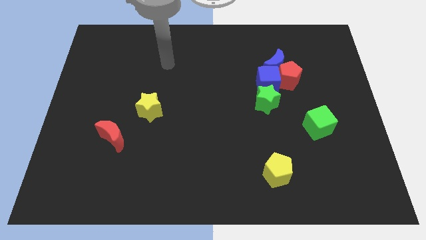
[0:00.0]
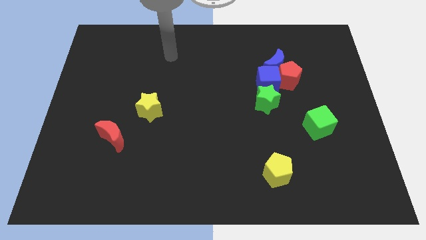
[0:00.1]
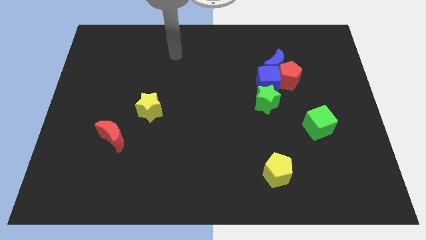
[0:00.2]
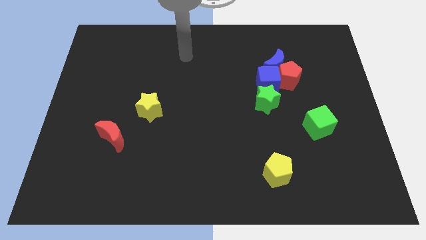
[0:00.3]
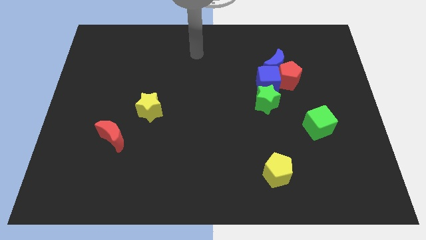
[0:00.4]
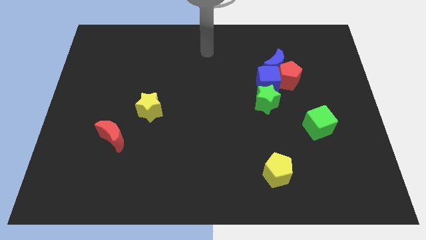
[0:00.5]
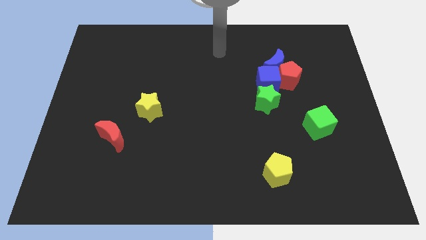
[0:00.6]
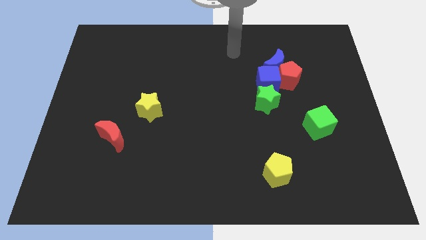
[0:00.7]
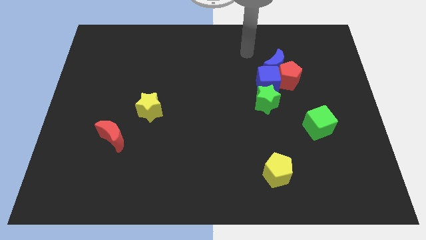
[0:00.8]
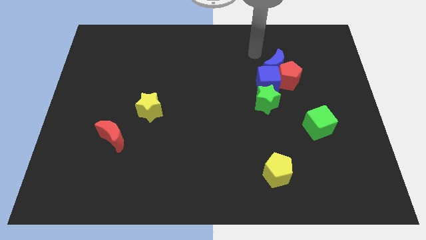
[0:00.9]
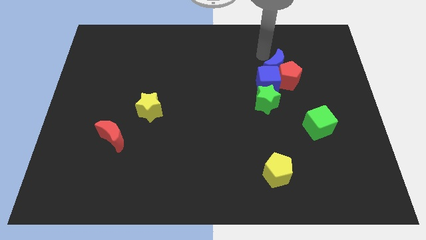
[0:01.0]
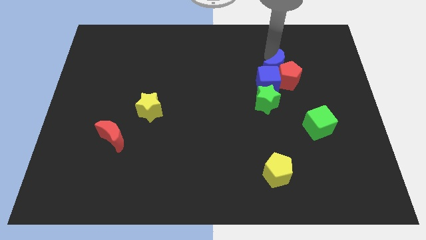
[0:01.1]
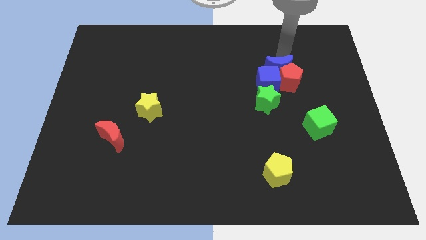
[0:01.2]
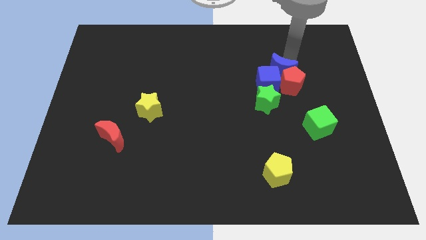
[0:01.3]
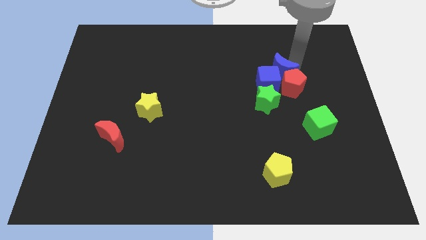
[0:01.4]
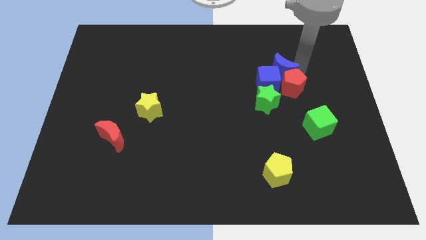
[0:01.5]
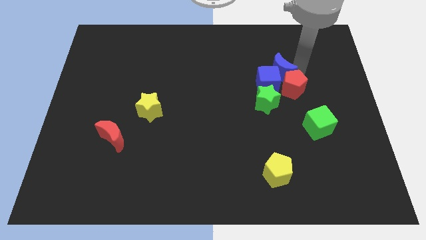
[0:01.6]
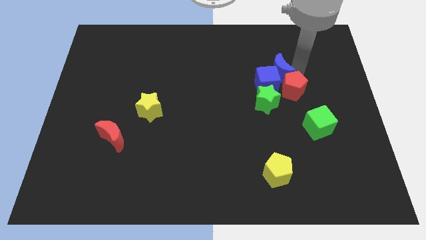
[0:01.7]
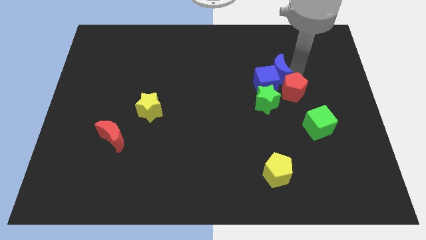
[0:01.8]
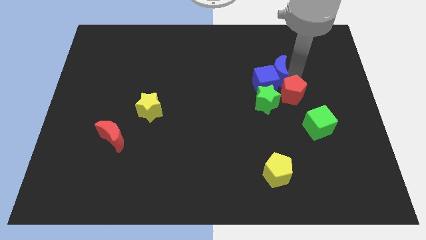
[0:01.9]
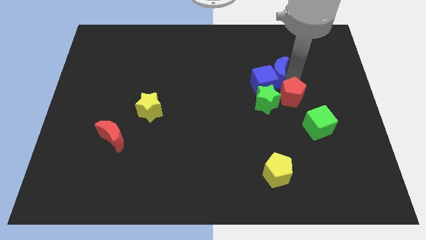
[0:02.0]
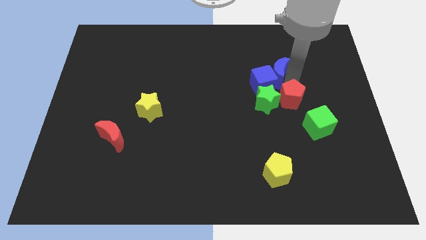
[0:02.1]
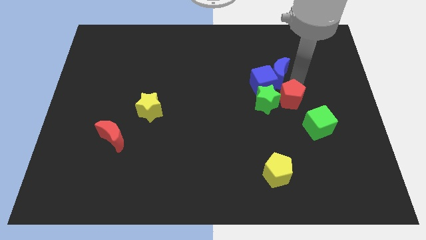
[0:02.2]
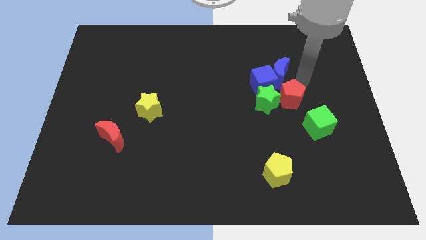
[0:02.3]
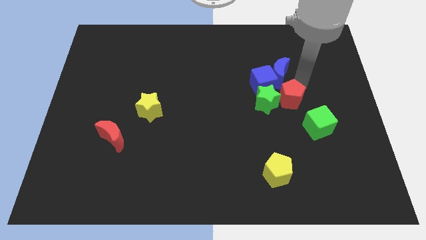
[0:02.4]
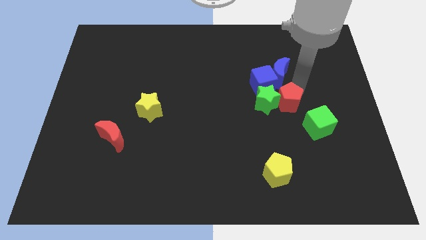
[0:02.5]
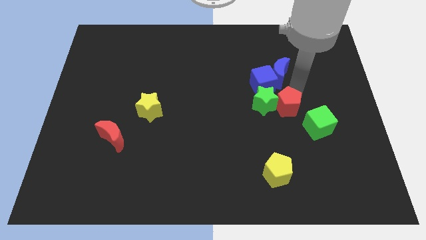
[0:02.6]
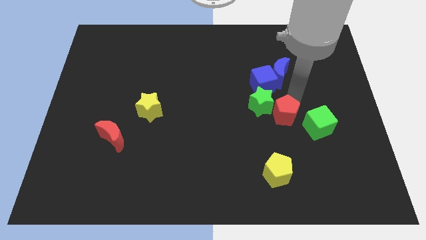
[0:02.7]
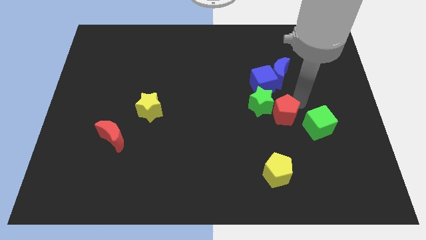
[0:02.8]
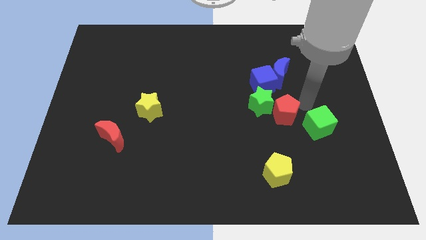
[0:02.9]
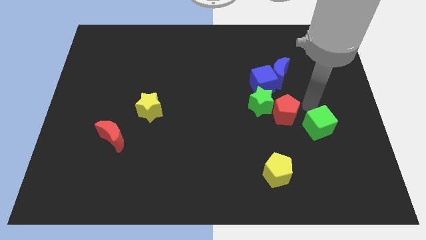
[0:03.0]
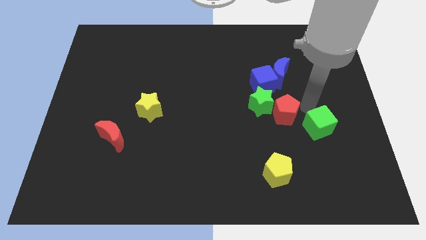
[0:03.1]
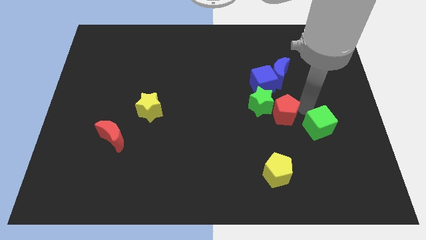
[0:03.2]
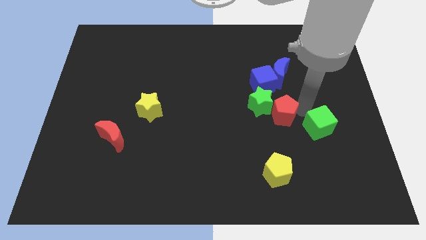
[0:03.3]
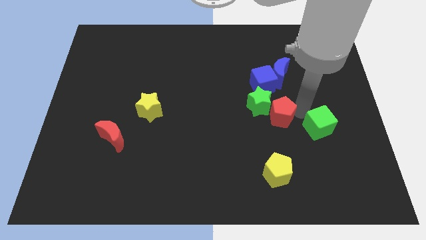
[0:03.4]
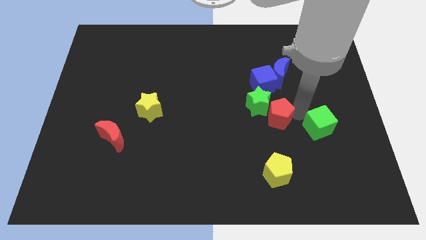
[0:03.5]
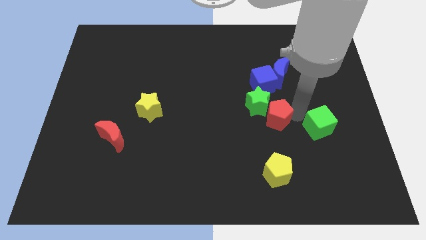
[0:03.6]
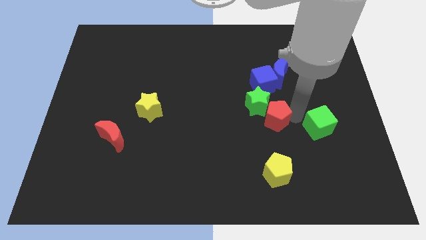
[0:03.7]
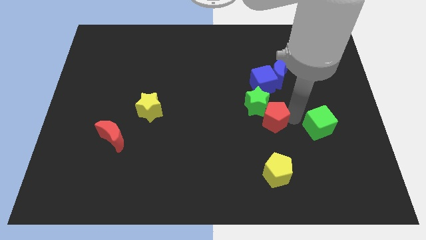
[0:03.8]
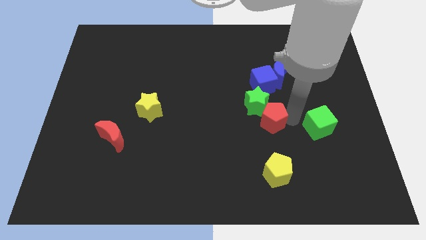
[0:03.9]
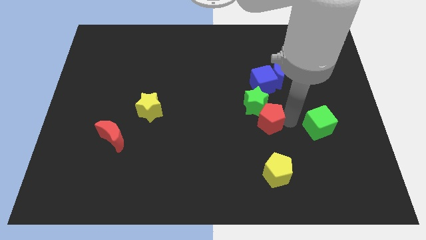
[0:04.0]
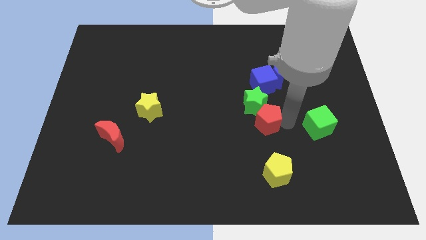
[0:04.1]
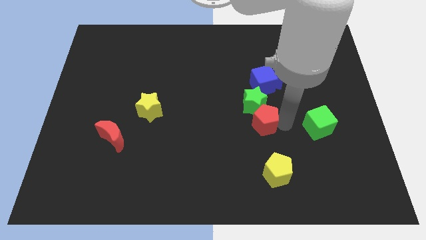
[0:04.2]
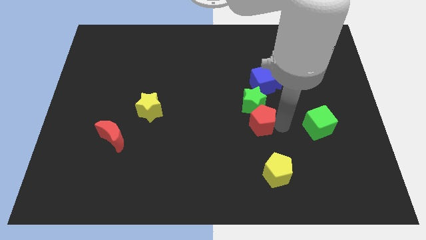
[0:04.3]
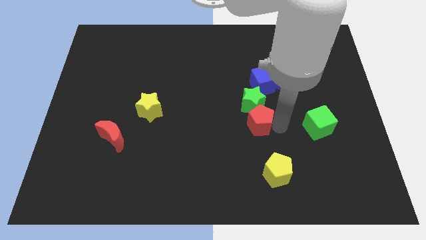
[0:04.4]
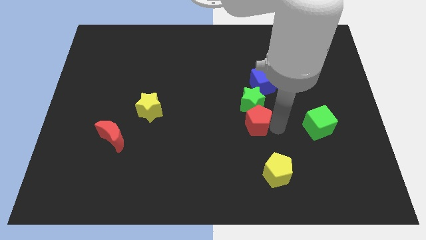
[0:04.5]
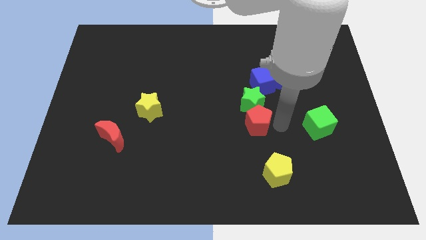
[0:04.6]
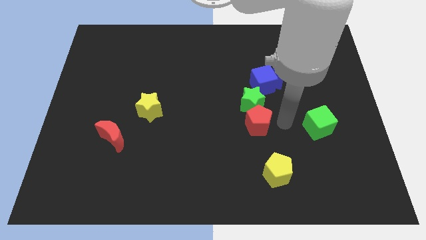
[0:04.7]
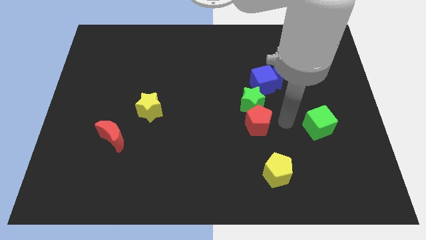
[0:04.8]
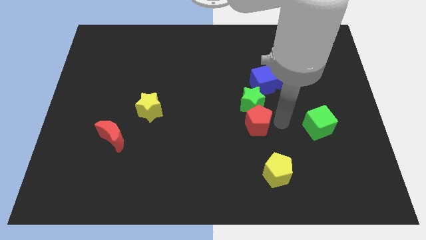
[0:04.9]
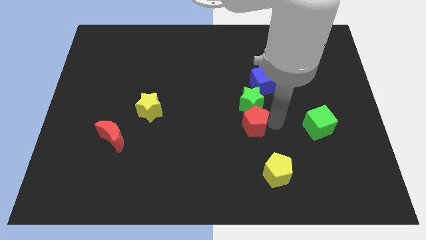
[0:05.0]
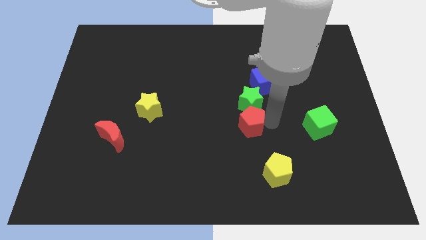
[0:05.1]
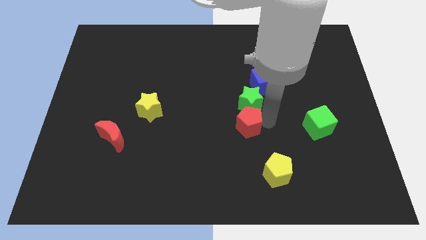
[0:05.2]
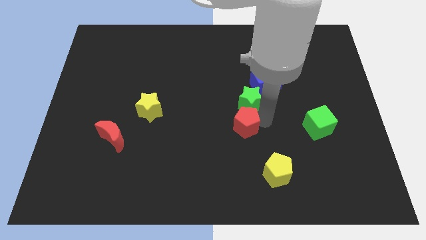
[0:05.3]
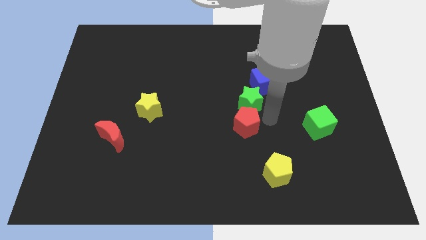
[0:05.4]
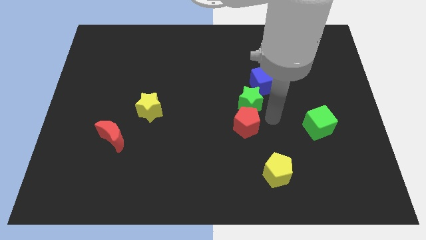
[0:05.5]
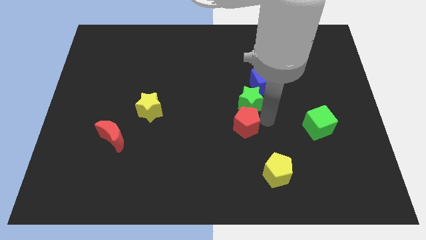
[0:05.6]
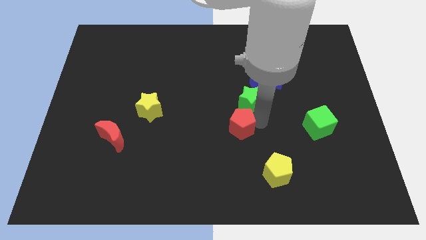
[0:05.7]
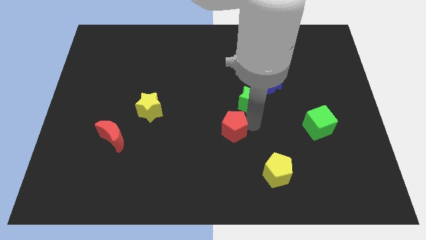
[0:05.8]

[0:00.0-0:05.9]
slide the red pentagon downwards and to the left

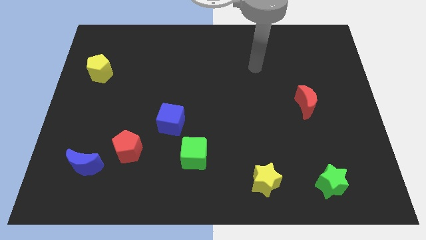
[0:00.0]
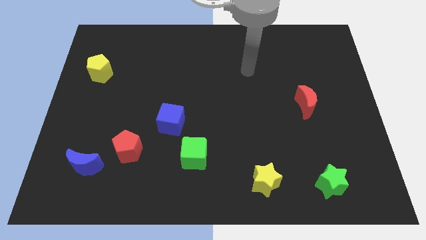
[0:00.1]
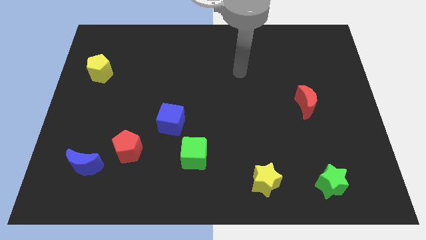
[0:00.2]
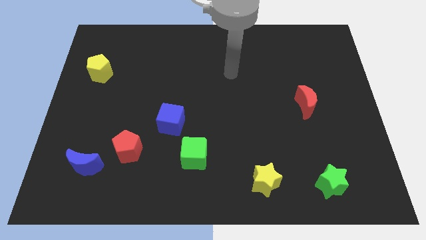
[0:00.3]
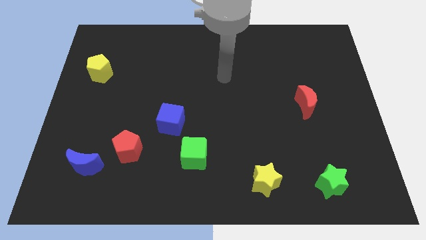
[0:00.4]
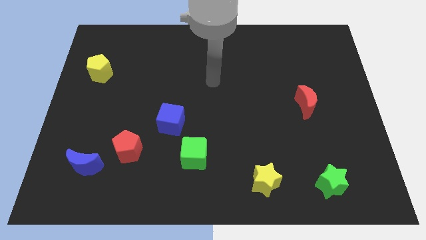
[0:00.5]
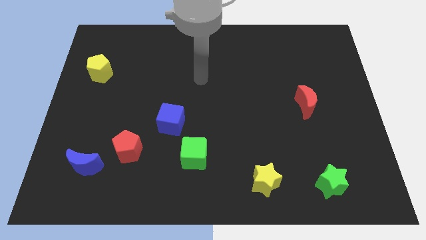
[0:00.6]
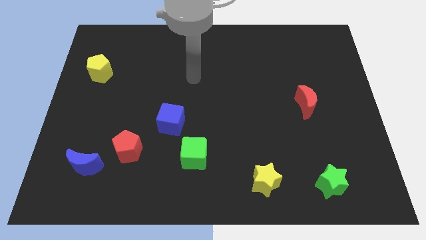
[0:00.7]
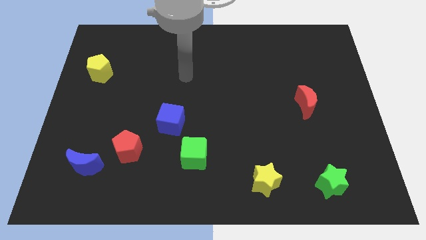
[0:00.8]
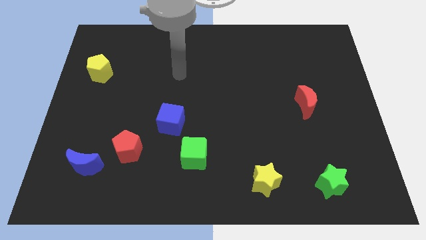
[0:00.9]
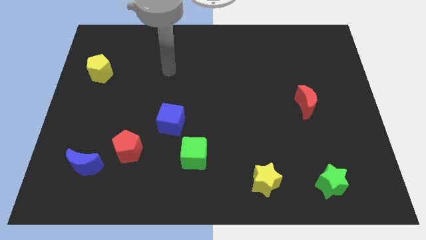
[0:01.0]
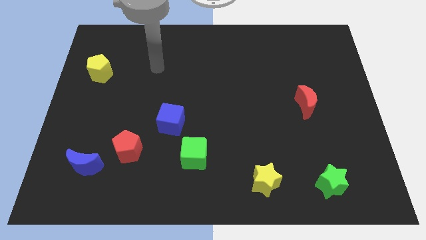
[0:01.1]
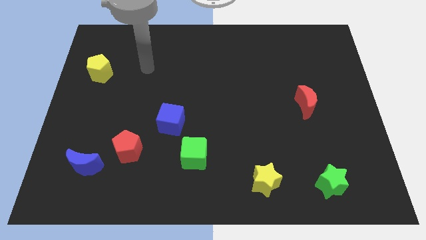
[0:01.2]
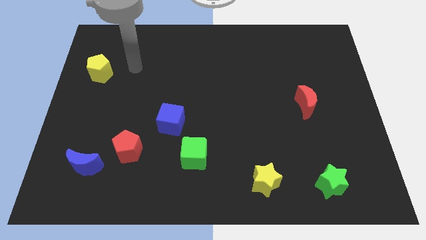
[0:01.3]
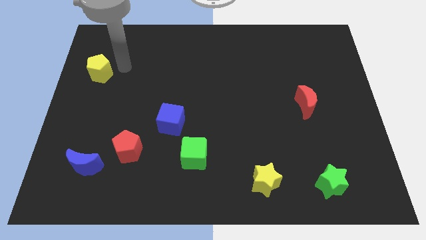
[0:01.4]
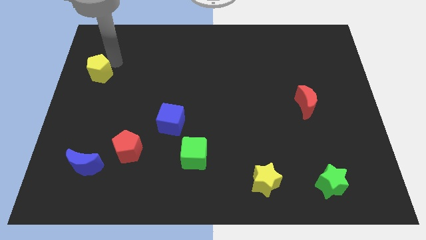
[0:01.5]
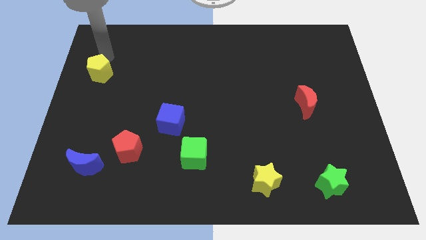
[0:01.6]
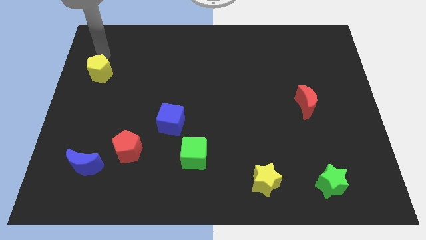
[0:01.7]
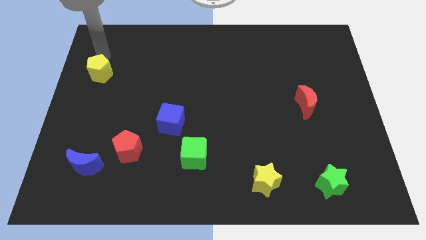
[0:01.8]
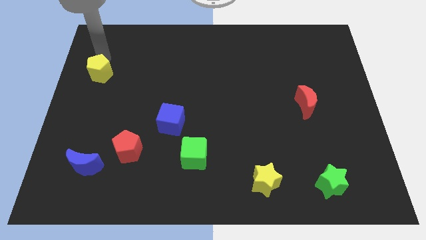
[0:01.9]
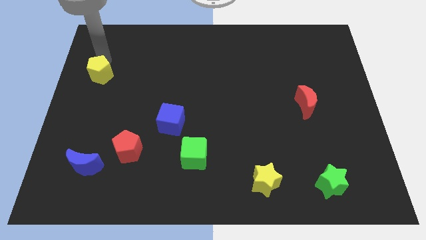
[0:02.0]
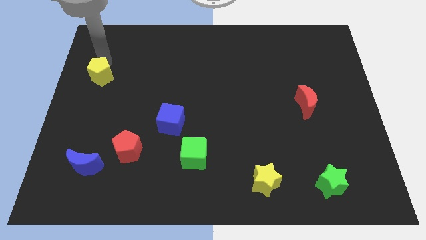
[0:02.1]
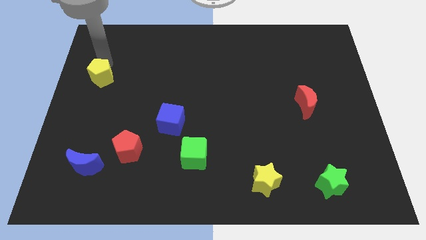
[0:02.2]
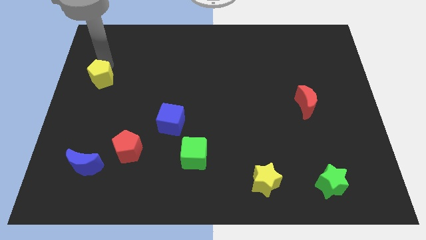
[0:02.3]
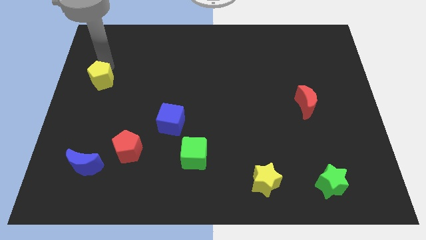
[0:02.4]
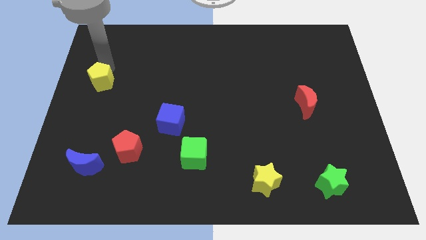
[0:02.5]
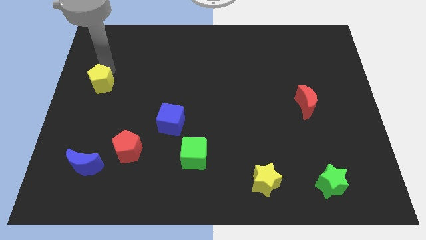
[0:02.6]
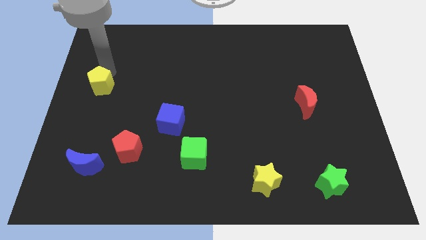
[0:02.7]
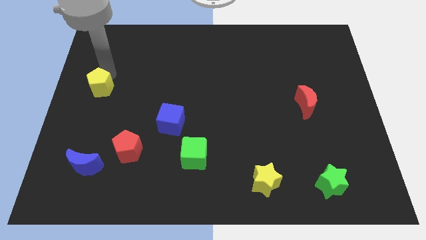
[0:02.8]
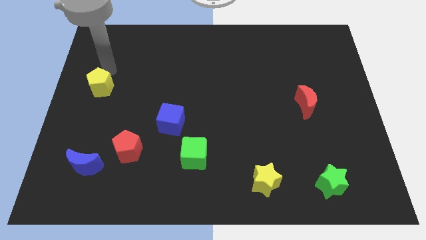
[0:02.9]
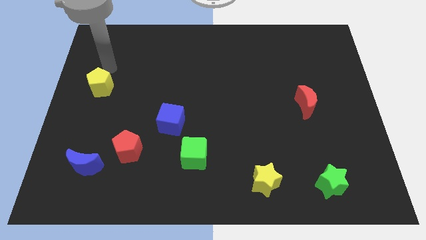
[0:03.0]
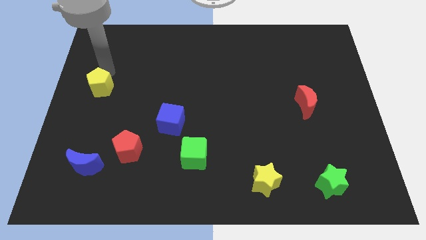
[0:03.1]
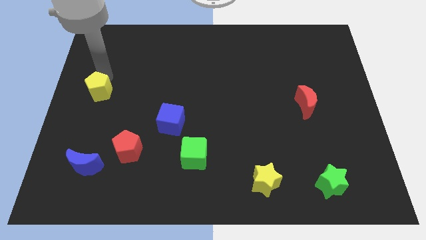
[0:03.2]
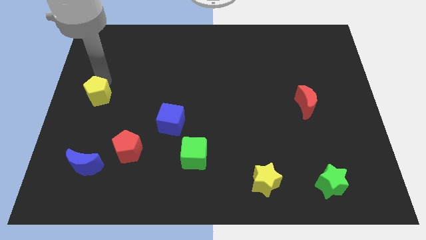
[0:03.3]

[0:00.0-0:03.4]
slightly move the yellow pentagon downwards
